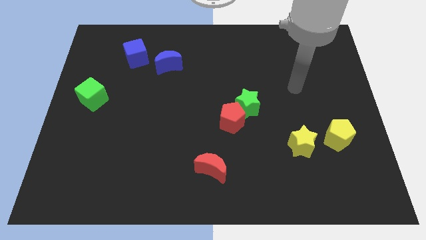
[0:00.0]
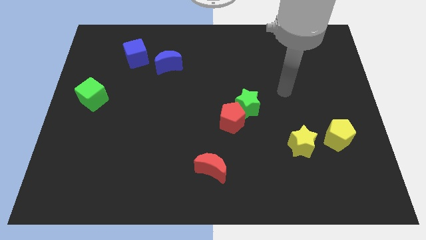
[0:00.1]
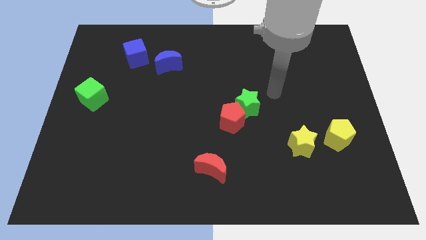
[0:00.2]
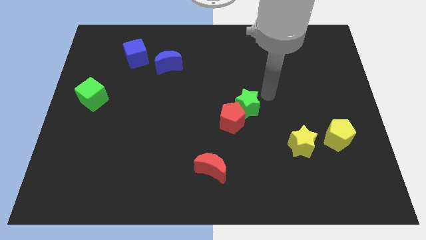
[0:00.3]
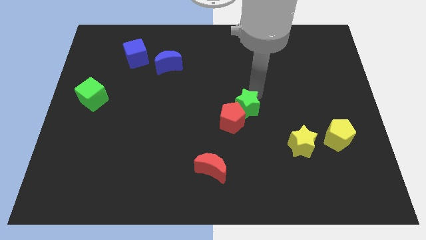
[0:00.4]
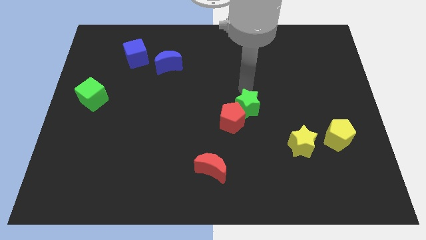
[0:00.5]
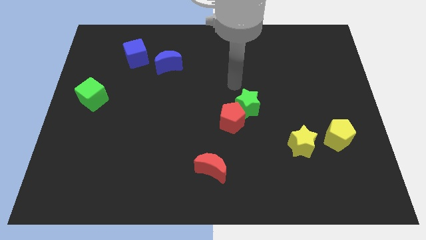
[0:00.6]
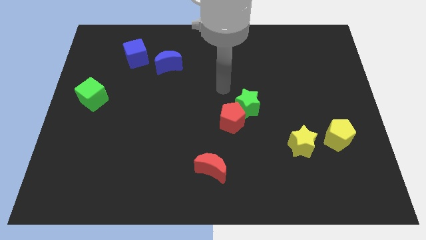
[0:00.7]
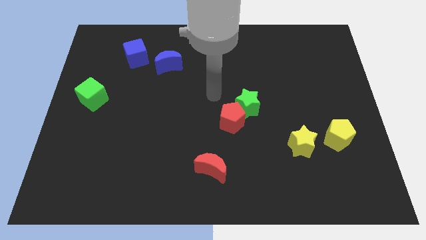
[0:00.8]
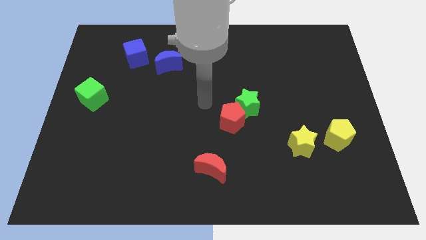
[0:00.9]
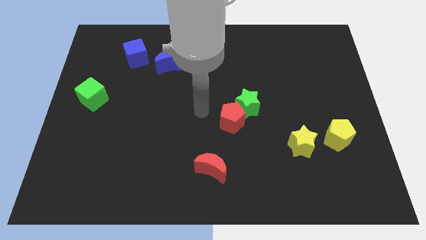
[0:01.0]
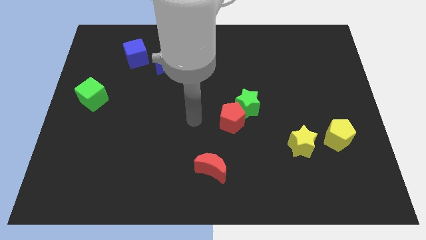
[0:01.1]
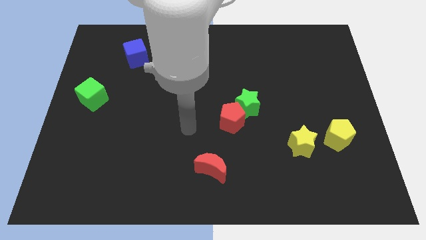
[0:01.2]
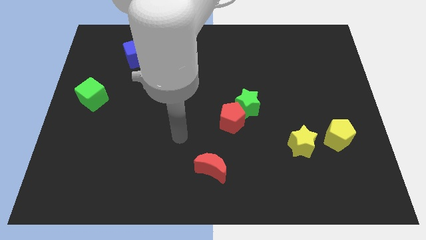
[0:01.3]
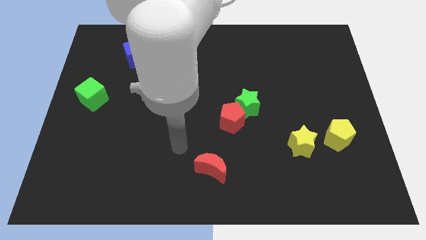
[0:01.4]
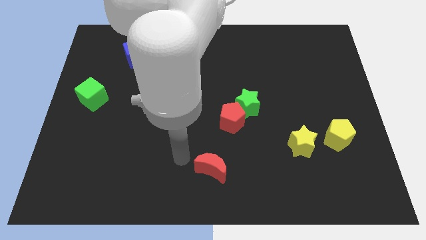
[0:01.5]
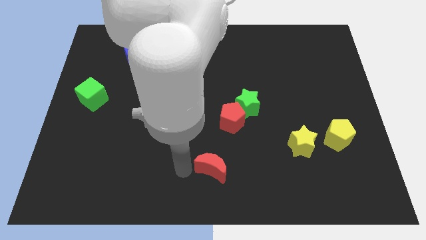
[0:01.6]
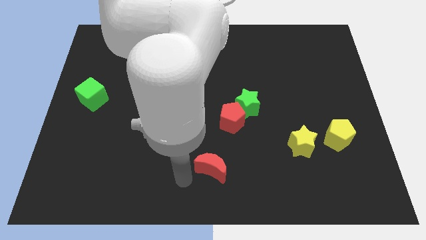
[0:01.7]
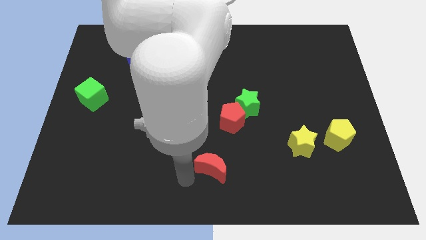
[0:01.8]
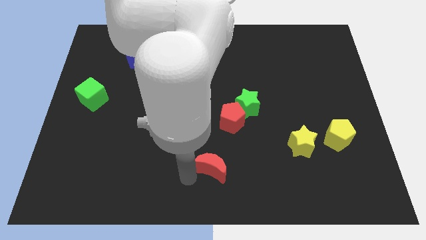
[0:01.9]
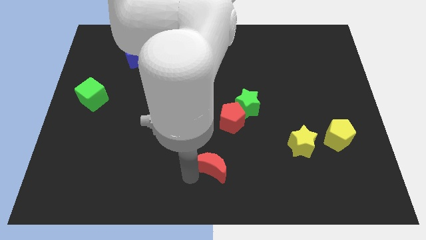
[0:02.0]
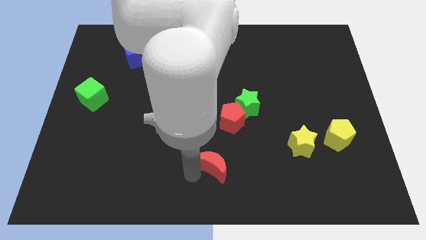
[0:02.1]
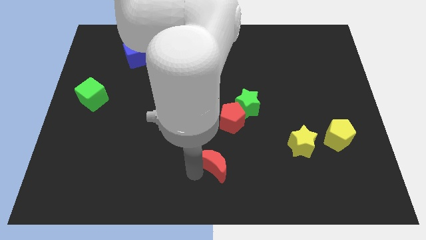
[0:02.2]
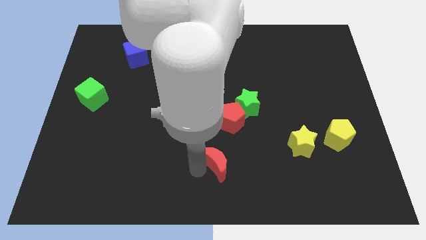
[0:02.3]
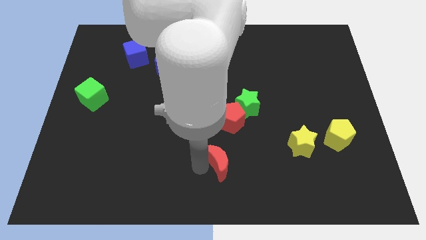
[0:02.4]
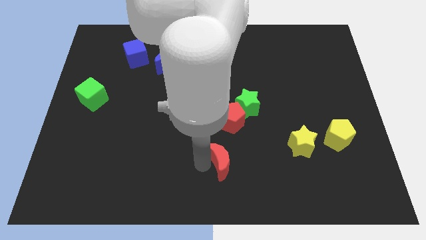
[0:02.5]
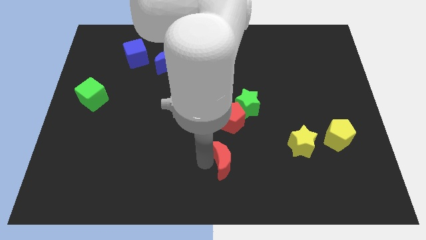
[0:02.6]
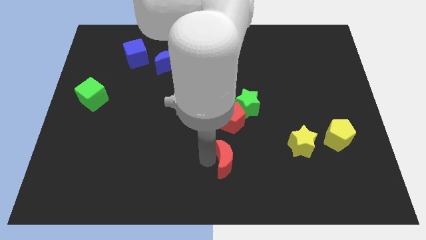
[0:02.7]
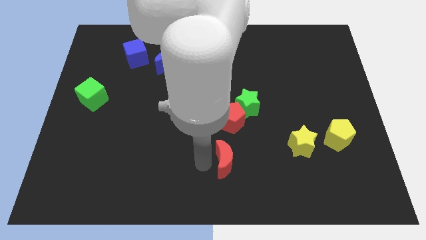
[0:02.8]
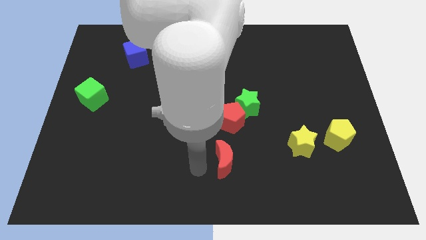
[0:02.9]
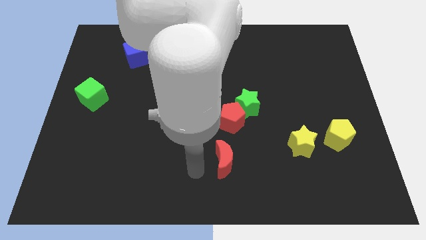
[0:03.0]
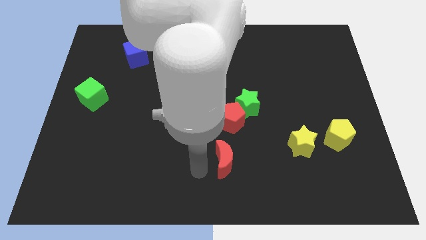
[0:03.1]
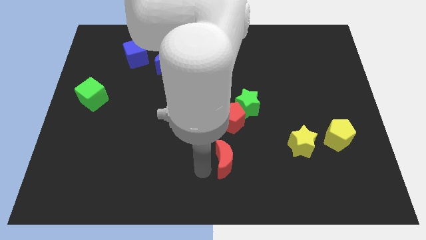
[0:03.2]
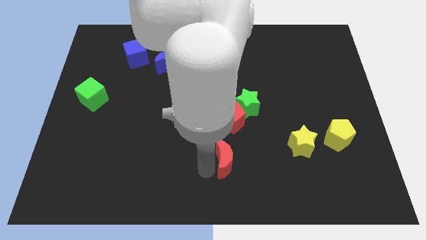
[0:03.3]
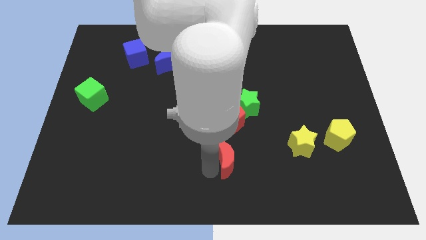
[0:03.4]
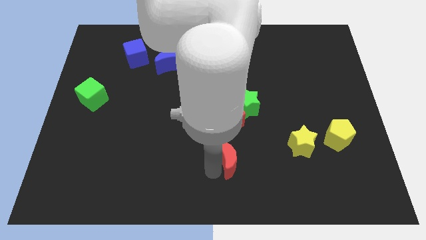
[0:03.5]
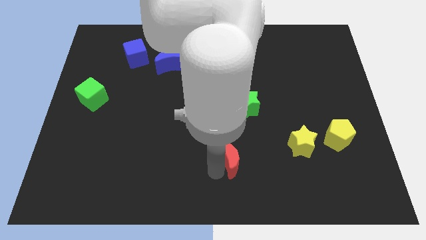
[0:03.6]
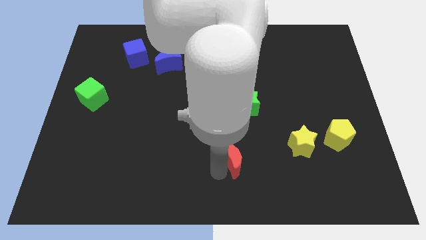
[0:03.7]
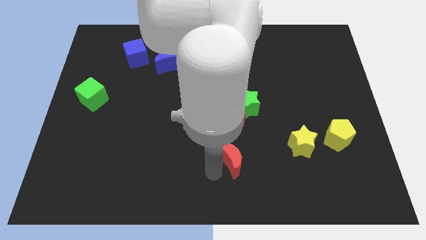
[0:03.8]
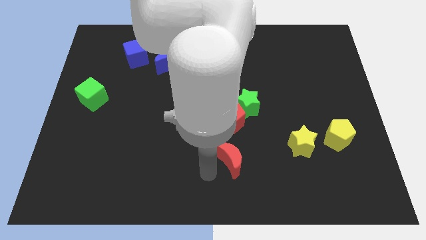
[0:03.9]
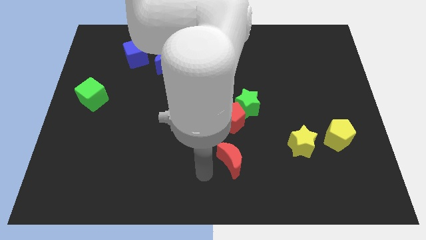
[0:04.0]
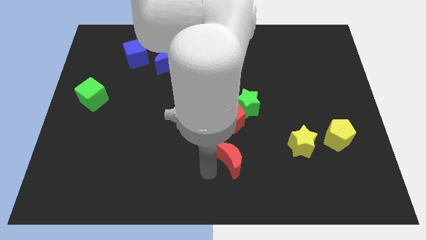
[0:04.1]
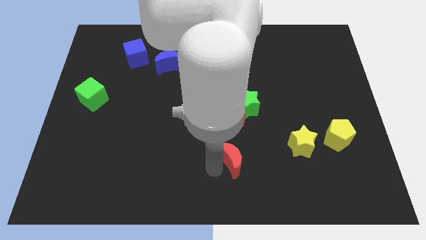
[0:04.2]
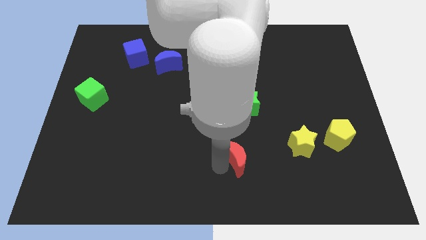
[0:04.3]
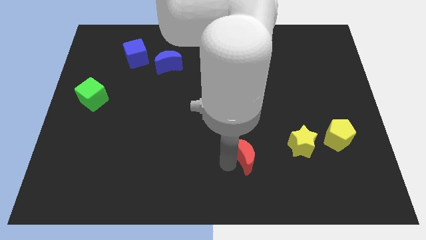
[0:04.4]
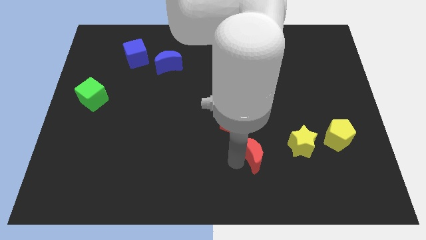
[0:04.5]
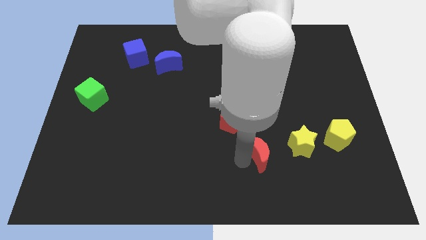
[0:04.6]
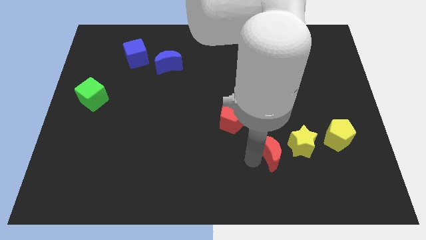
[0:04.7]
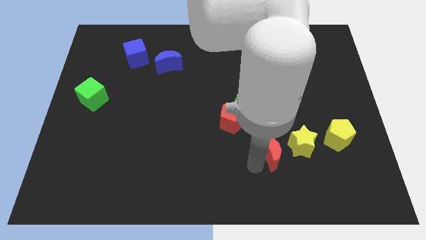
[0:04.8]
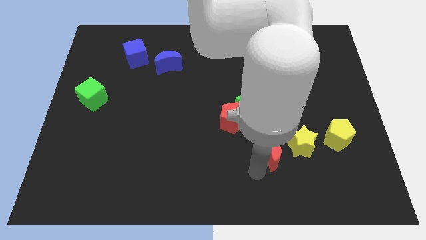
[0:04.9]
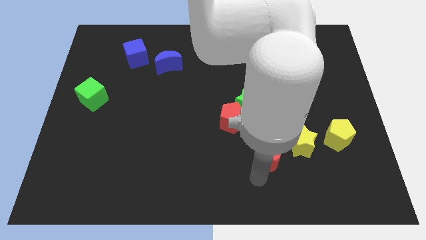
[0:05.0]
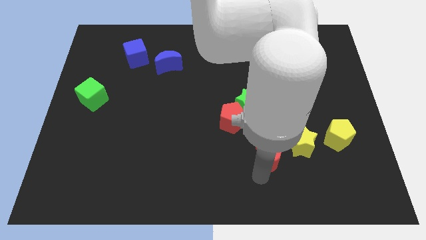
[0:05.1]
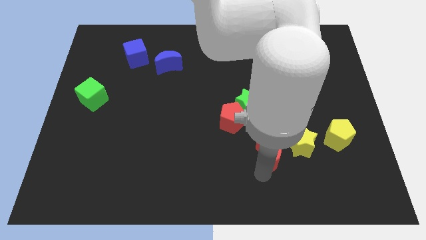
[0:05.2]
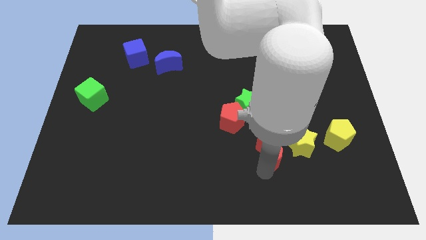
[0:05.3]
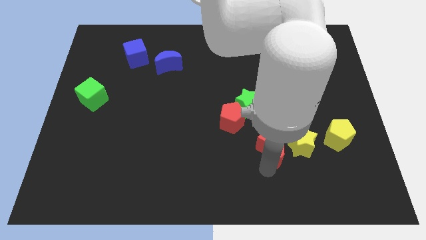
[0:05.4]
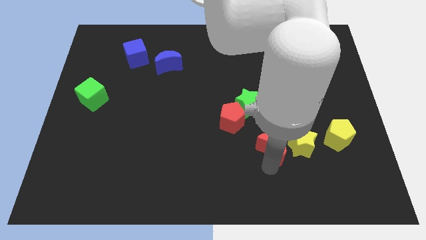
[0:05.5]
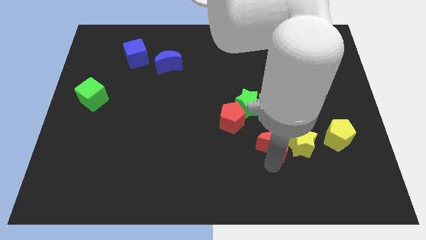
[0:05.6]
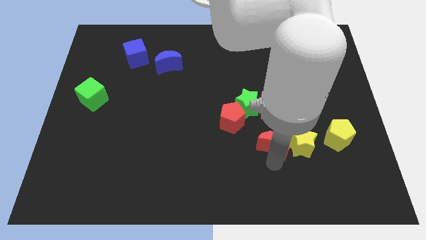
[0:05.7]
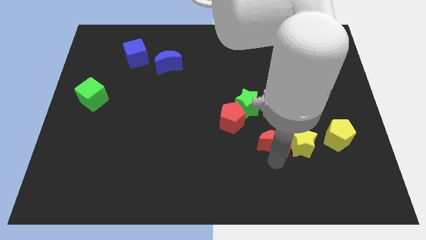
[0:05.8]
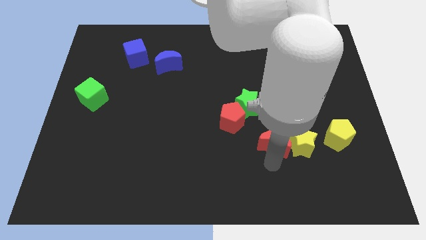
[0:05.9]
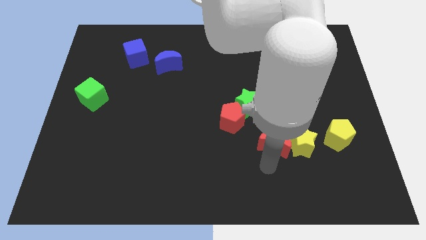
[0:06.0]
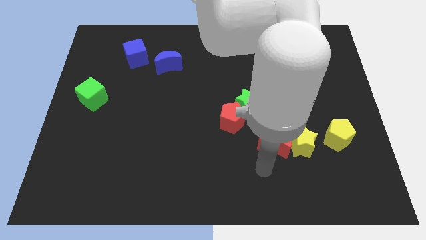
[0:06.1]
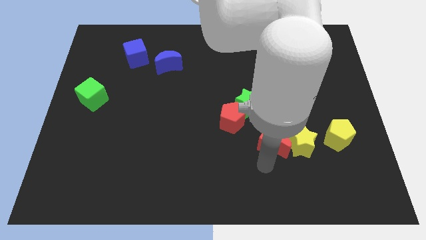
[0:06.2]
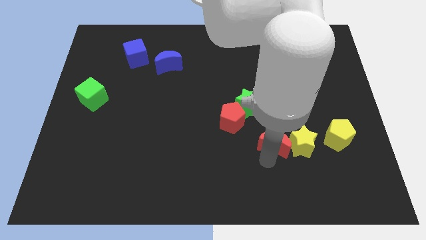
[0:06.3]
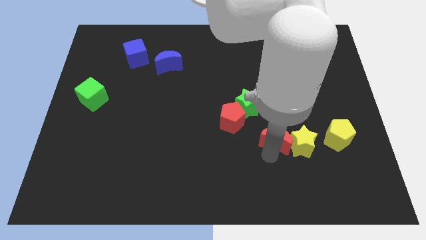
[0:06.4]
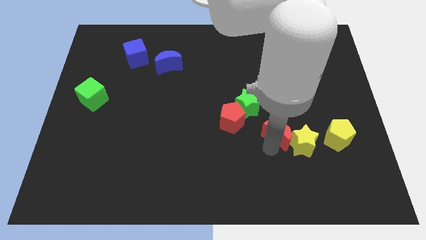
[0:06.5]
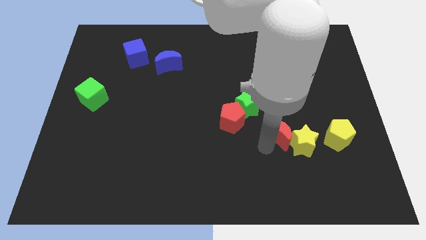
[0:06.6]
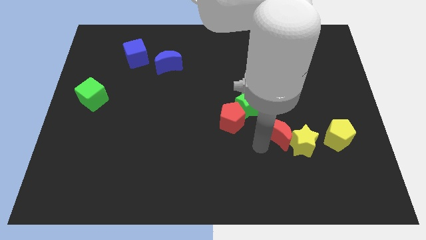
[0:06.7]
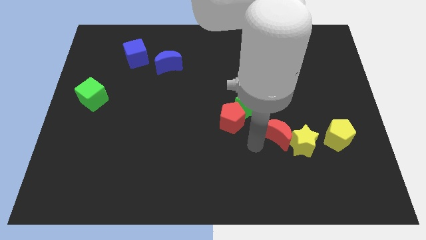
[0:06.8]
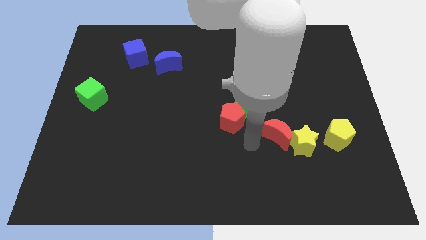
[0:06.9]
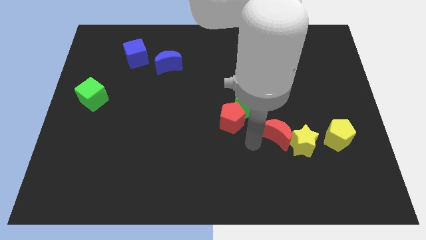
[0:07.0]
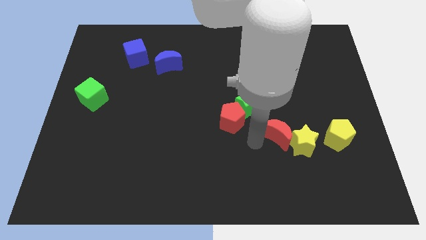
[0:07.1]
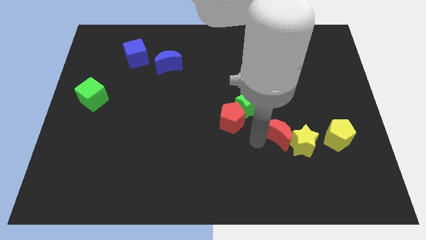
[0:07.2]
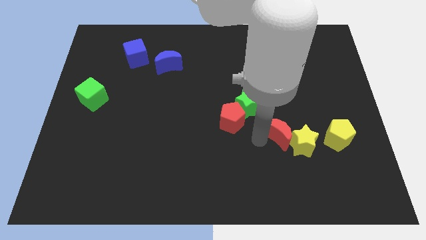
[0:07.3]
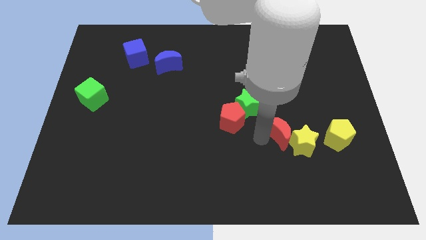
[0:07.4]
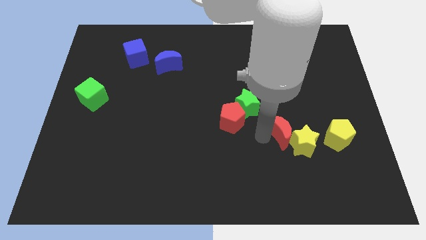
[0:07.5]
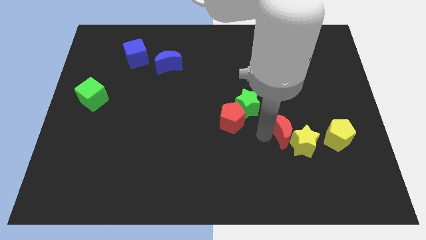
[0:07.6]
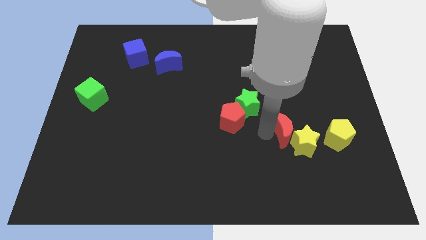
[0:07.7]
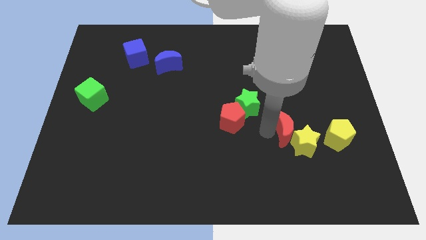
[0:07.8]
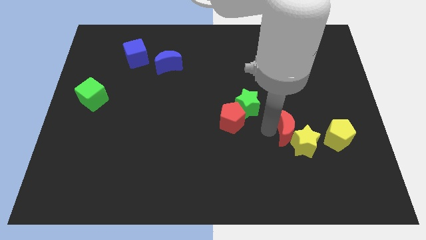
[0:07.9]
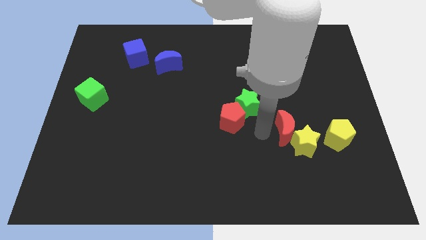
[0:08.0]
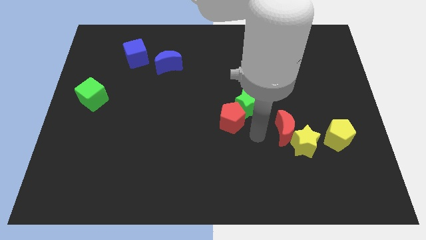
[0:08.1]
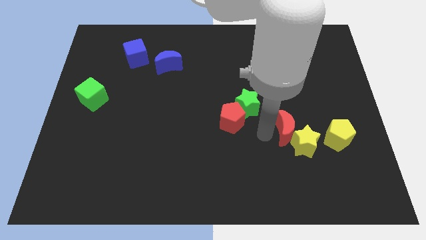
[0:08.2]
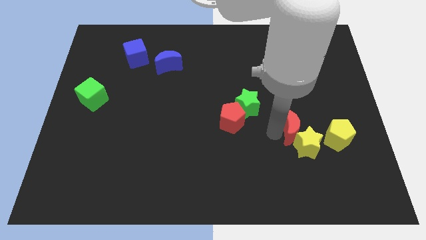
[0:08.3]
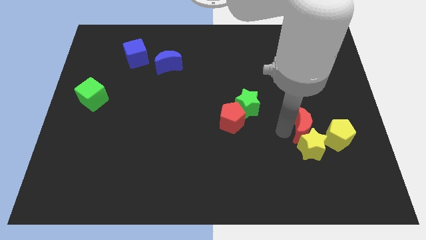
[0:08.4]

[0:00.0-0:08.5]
move the red moon to the top right side of the yellow star
